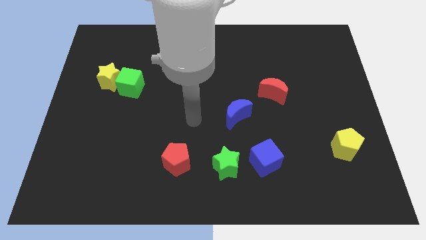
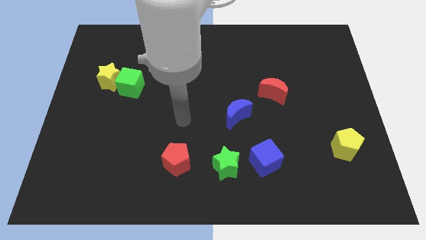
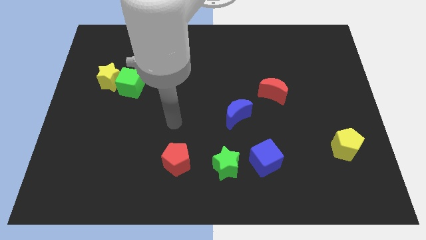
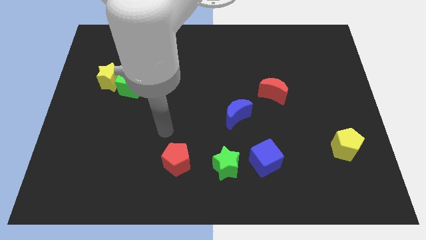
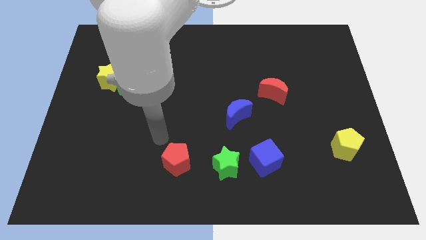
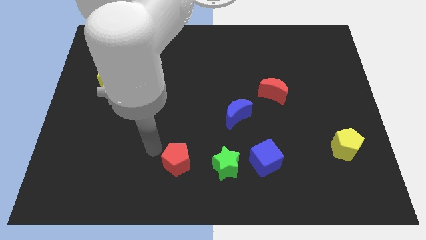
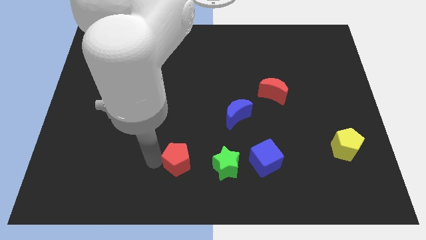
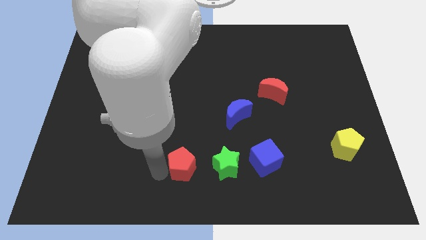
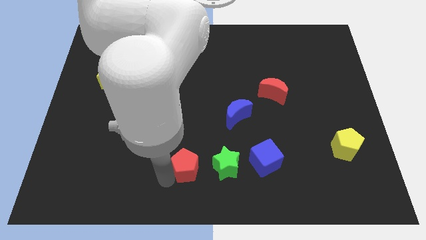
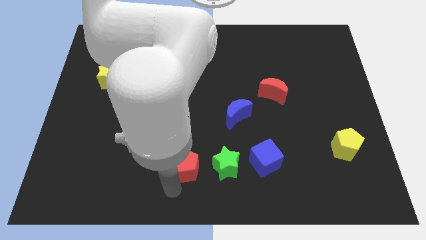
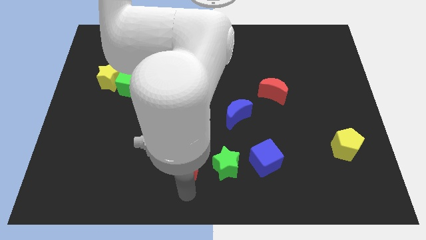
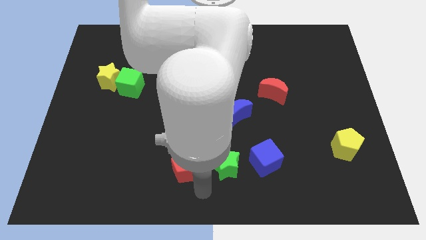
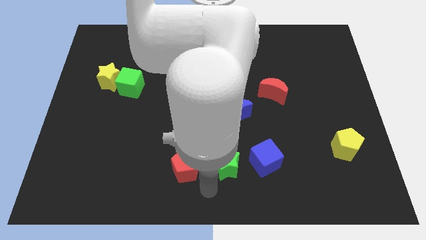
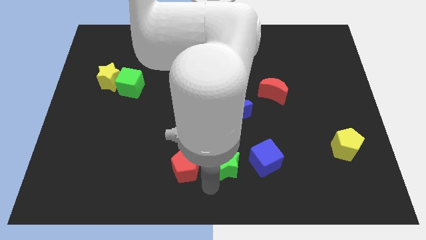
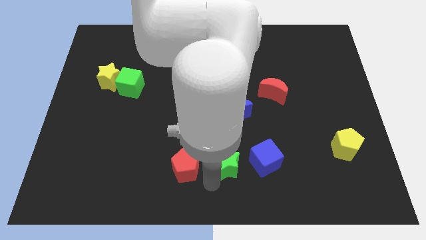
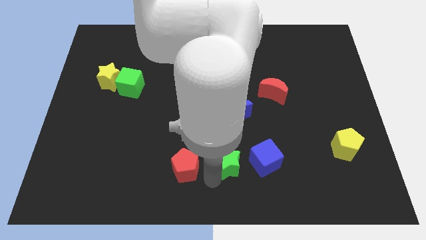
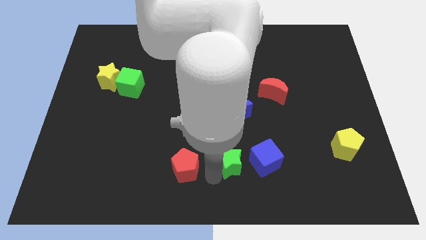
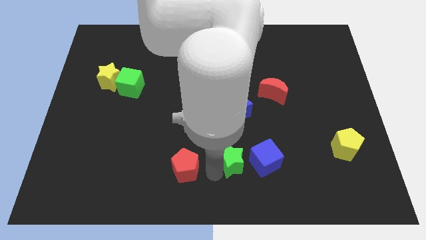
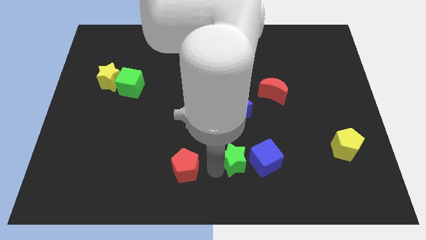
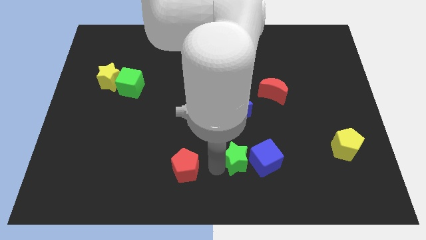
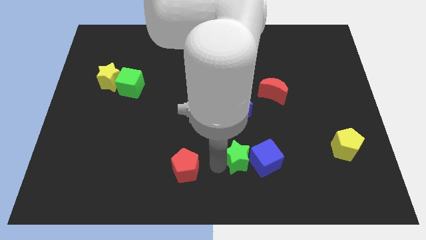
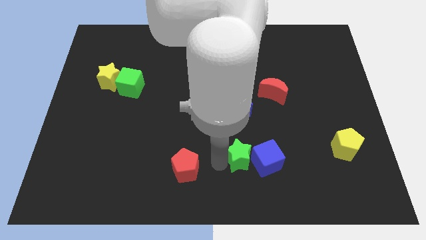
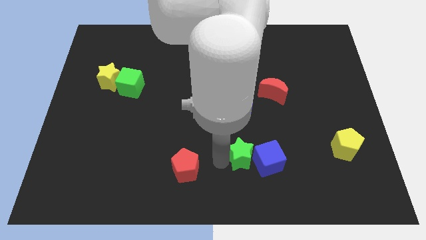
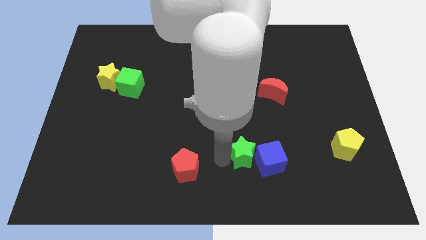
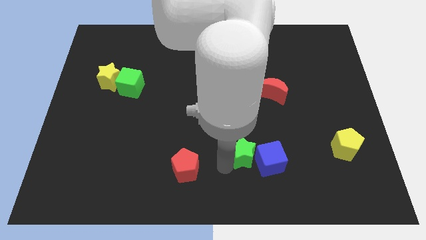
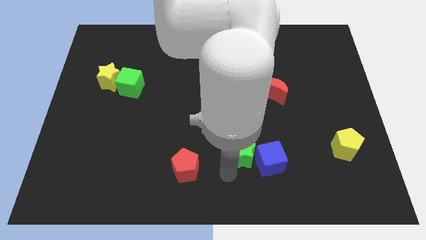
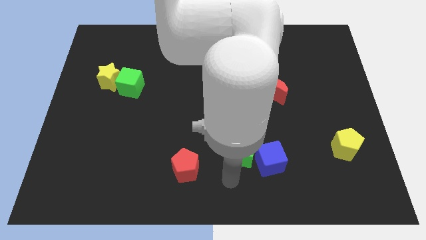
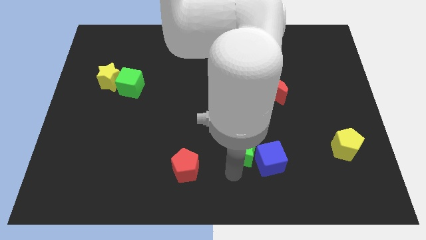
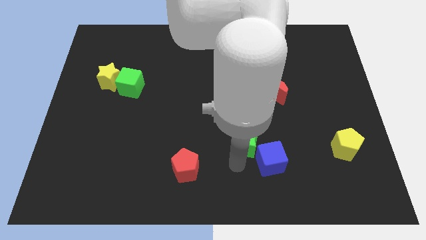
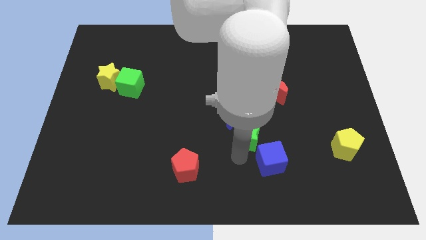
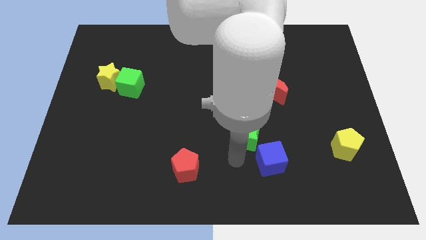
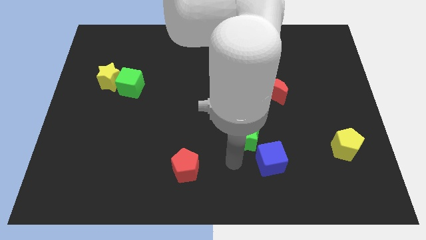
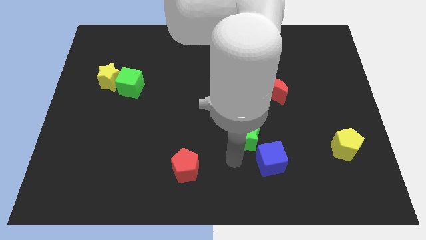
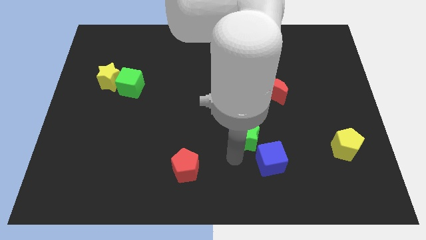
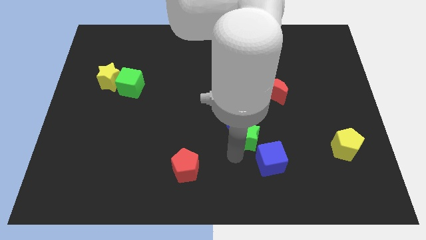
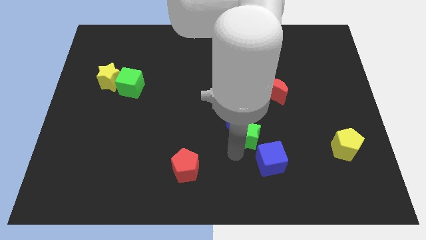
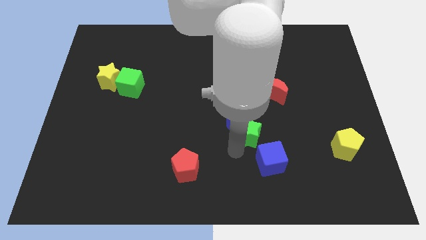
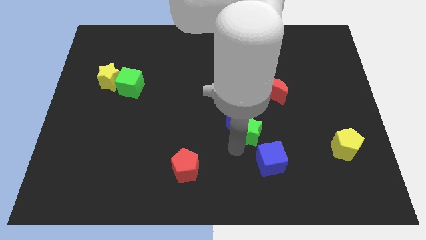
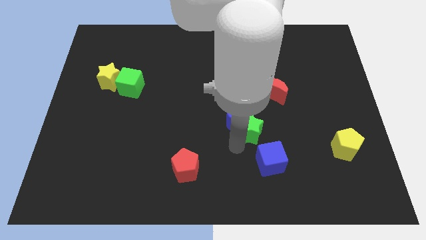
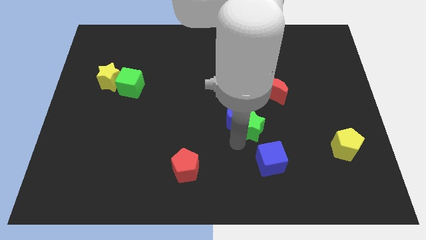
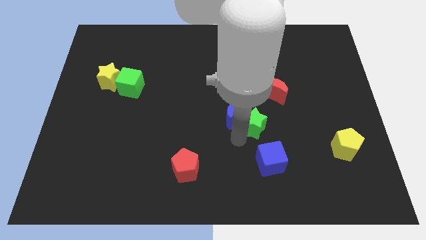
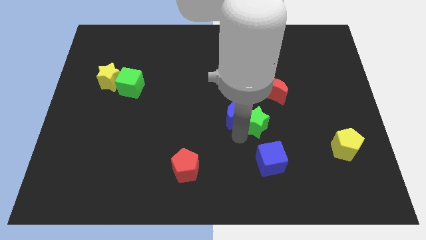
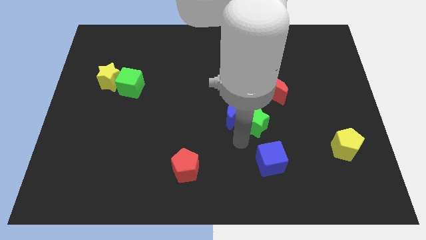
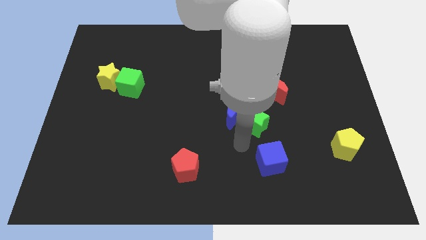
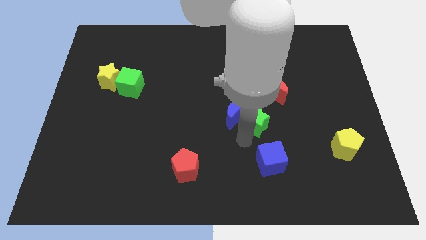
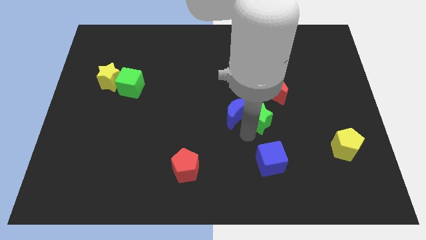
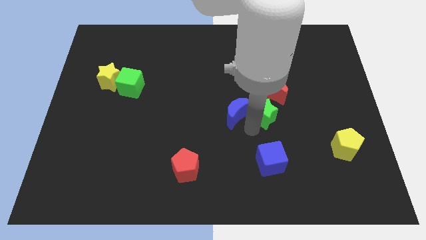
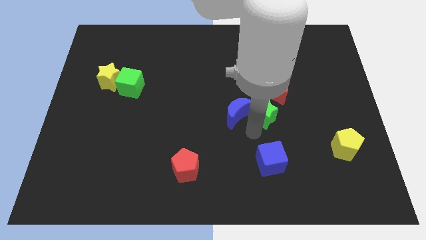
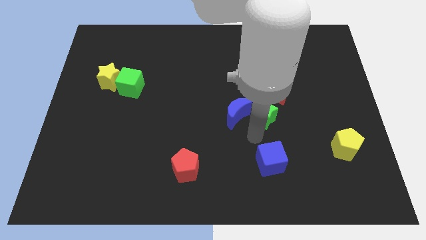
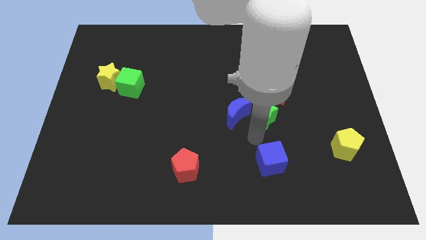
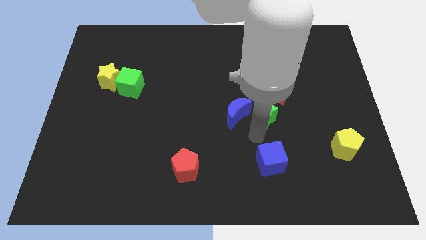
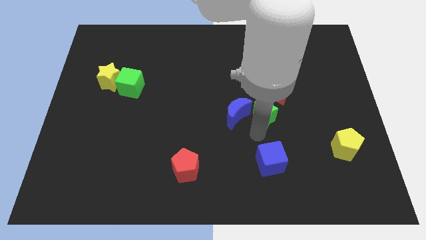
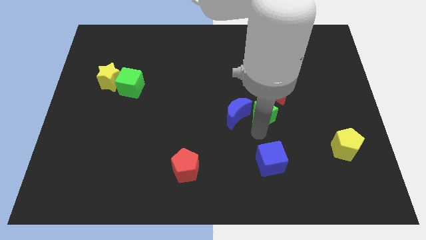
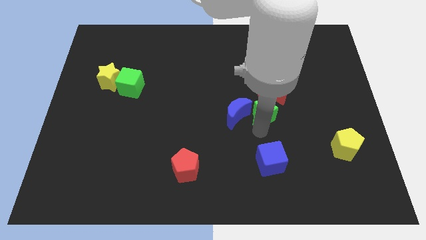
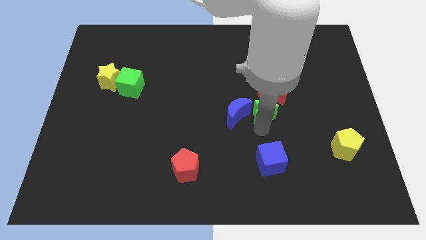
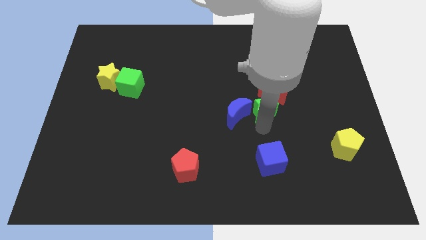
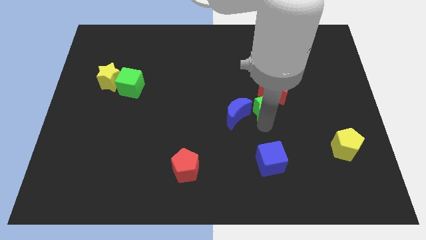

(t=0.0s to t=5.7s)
push the green star next to the red moon
